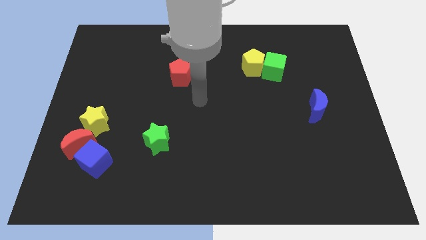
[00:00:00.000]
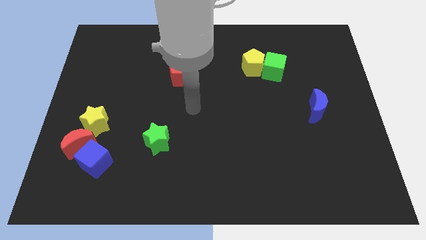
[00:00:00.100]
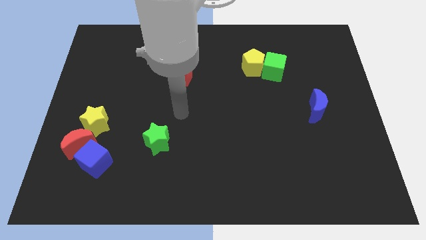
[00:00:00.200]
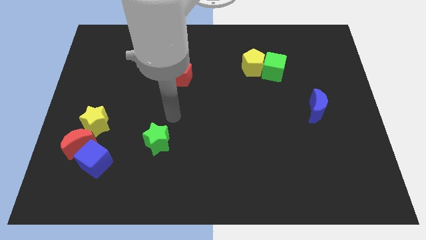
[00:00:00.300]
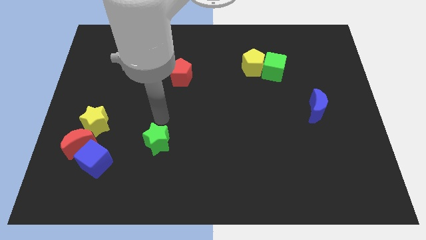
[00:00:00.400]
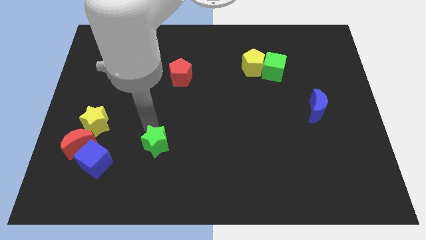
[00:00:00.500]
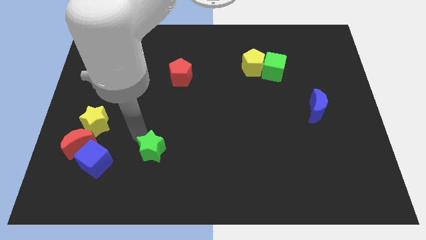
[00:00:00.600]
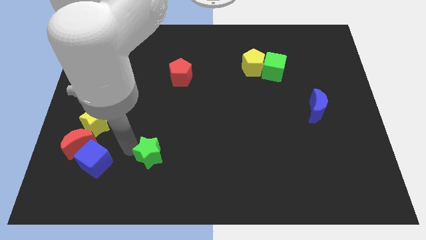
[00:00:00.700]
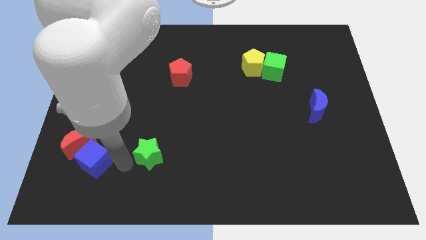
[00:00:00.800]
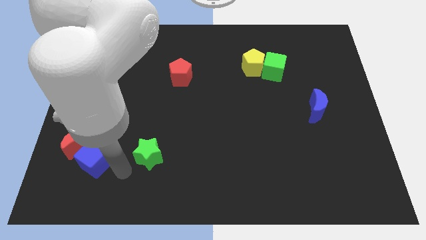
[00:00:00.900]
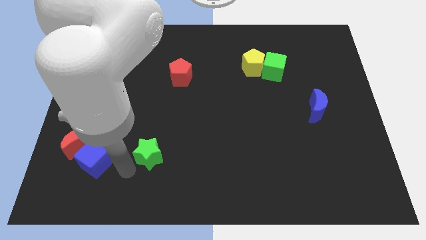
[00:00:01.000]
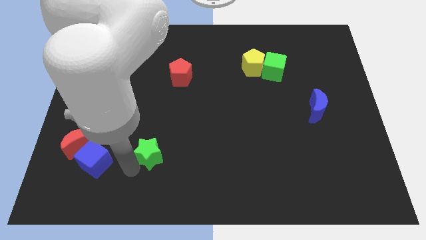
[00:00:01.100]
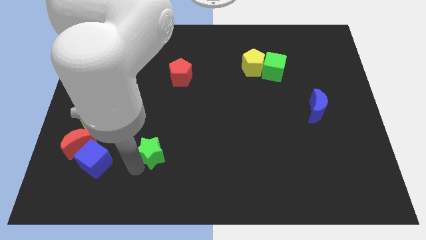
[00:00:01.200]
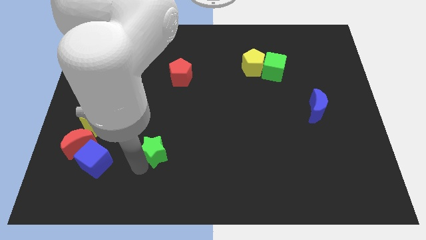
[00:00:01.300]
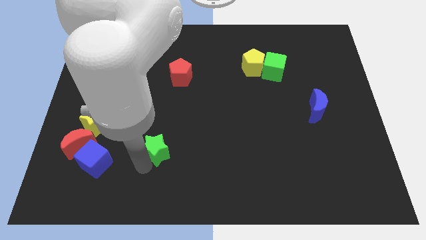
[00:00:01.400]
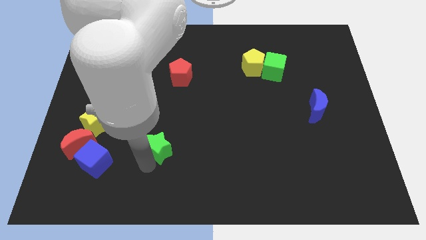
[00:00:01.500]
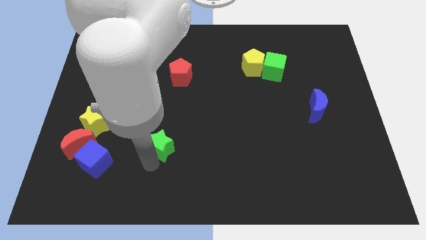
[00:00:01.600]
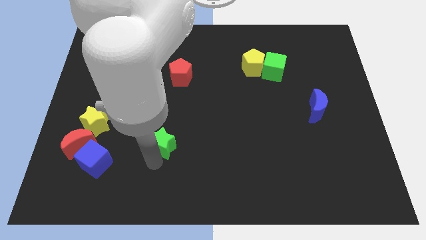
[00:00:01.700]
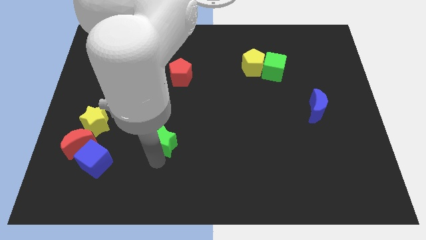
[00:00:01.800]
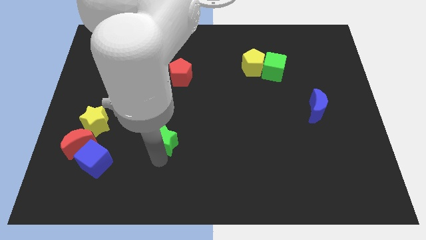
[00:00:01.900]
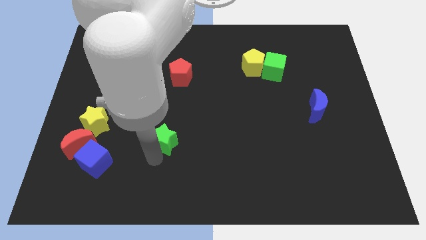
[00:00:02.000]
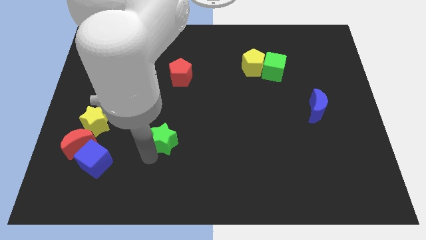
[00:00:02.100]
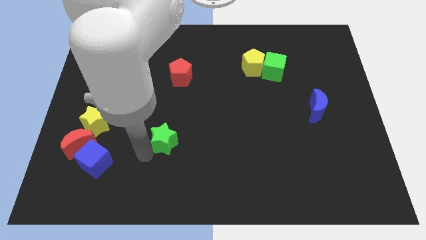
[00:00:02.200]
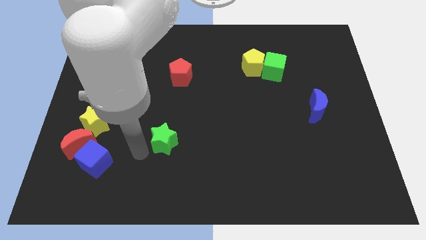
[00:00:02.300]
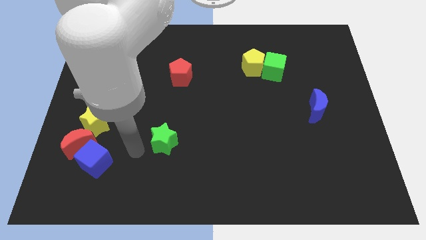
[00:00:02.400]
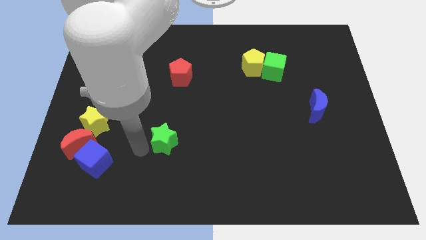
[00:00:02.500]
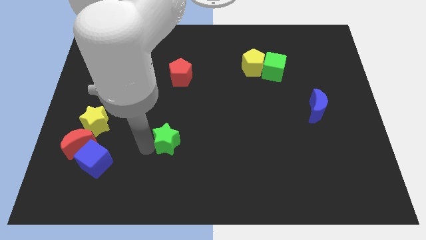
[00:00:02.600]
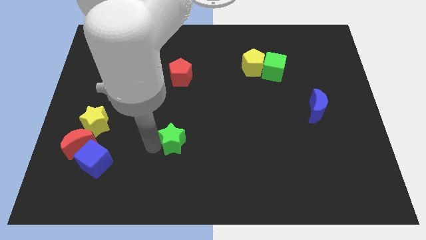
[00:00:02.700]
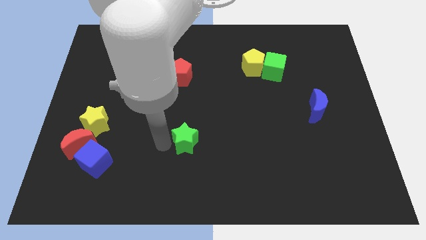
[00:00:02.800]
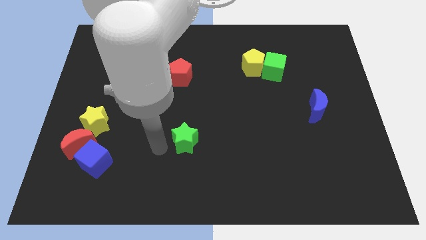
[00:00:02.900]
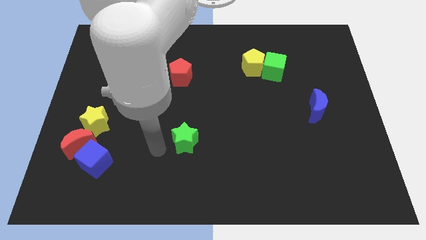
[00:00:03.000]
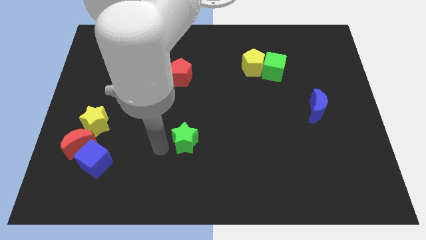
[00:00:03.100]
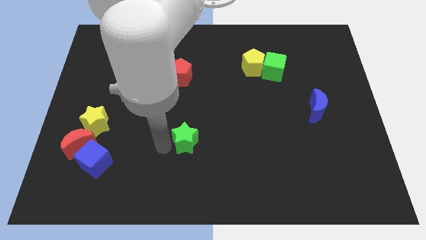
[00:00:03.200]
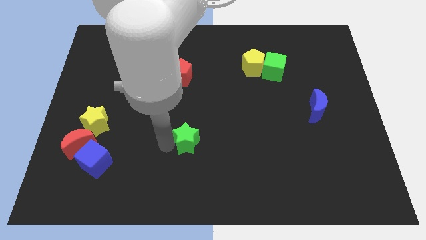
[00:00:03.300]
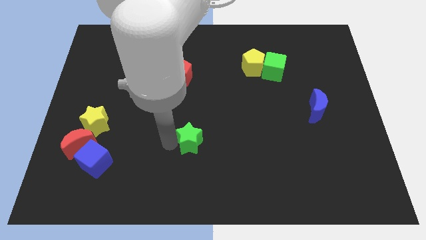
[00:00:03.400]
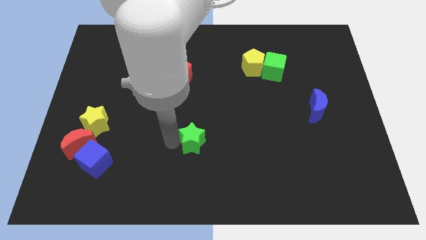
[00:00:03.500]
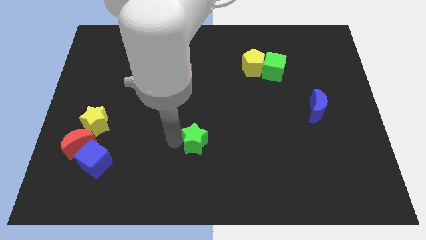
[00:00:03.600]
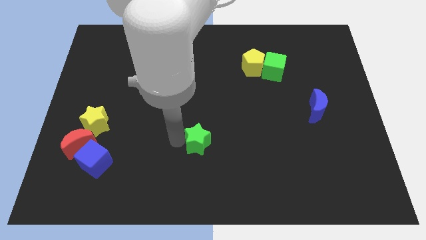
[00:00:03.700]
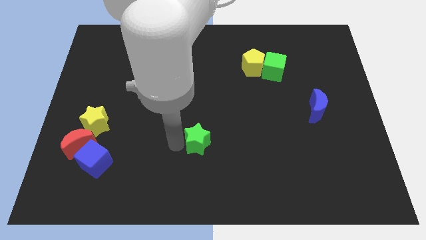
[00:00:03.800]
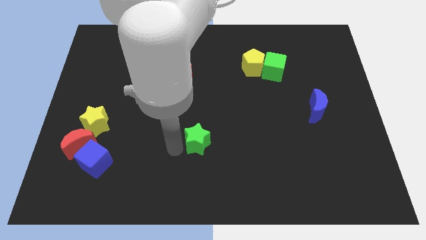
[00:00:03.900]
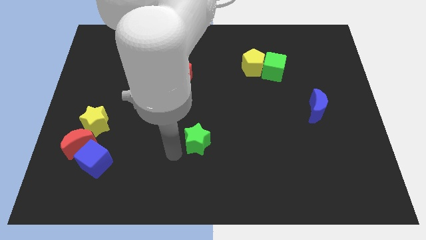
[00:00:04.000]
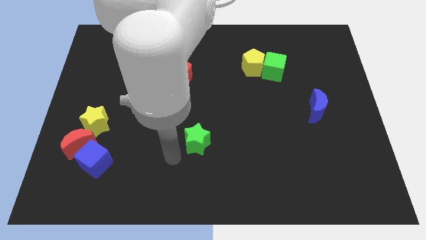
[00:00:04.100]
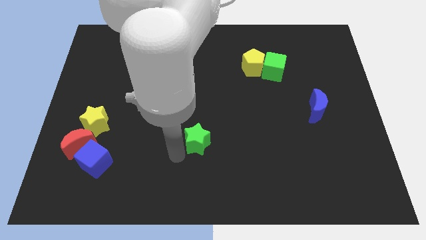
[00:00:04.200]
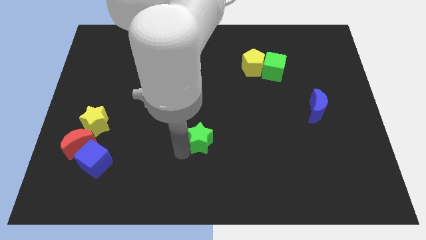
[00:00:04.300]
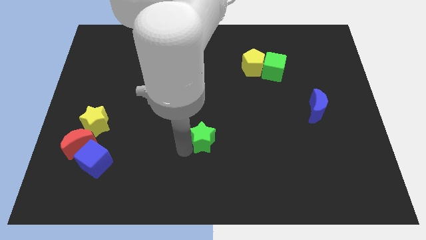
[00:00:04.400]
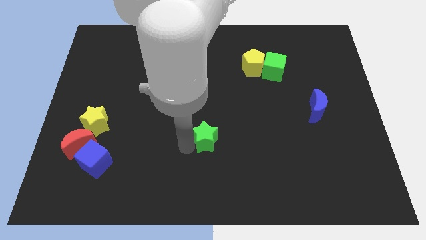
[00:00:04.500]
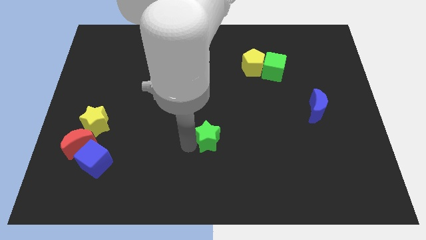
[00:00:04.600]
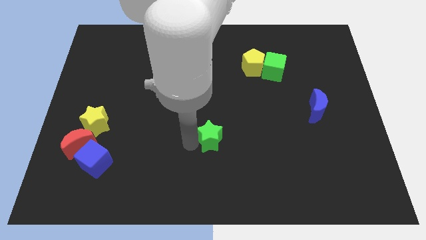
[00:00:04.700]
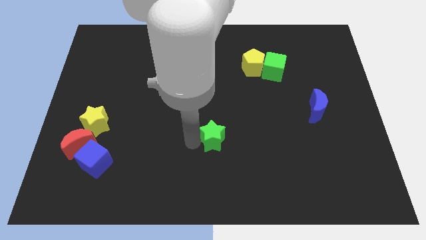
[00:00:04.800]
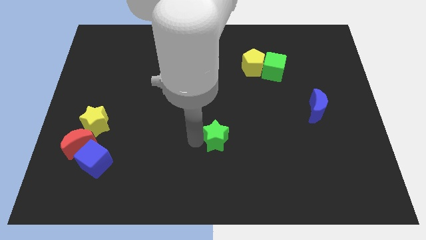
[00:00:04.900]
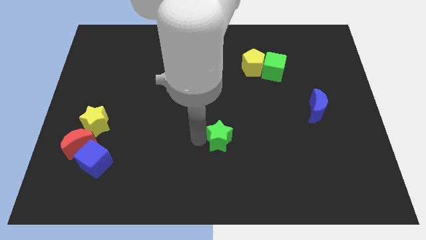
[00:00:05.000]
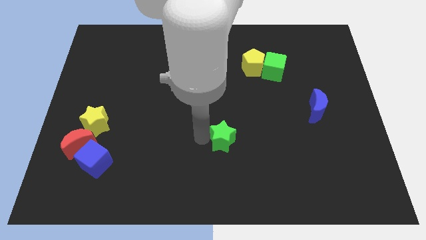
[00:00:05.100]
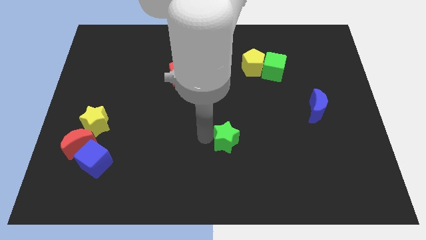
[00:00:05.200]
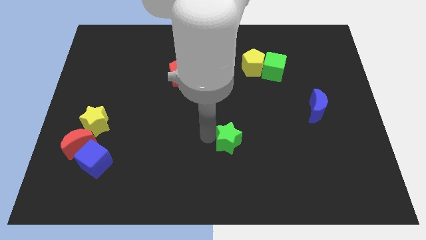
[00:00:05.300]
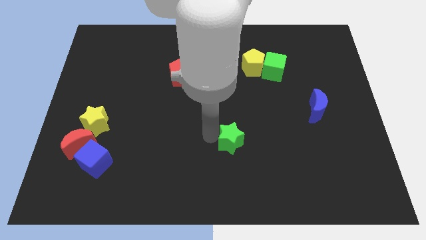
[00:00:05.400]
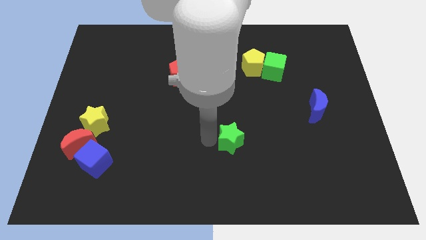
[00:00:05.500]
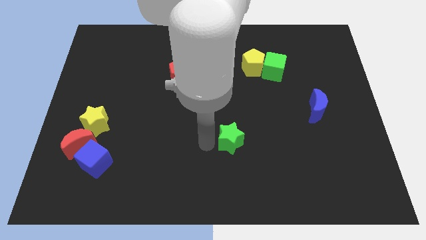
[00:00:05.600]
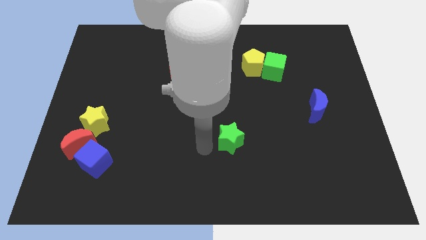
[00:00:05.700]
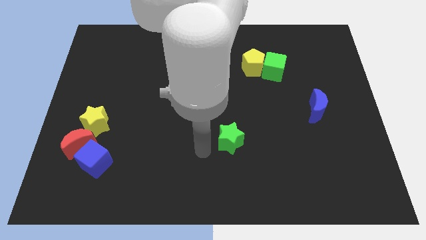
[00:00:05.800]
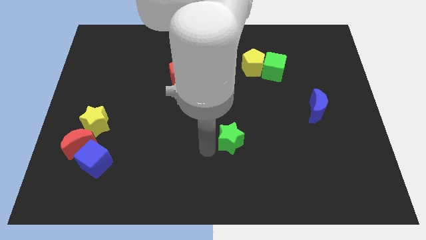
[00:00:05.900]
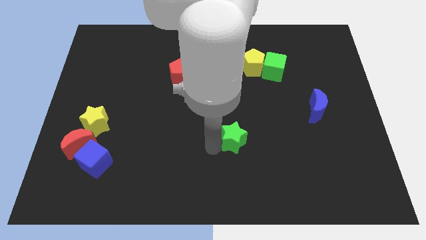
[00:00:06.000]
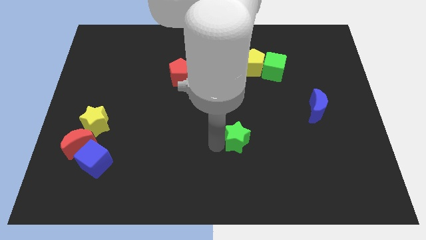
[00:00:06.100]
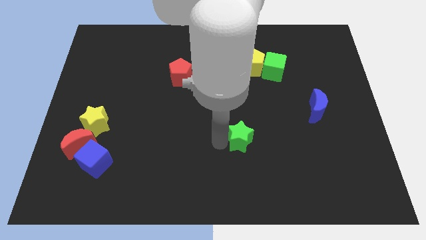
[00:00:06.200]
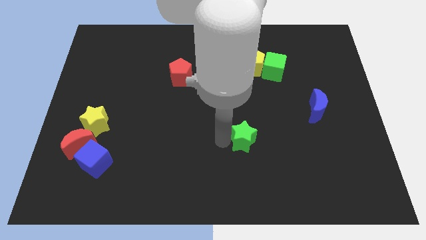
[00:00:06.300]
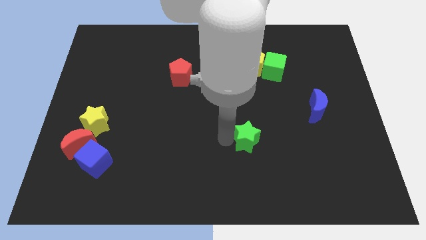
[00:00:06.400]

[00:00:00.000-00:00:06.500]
move the green star to the right

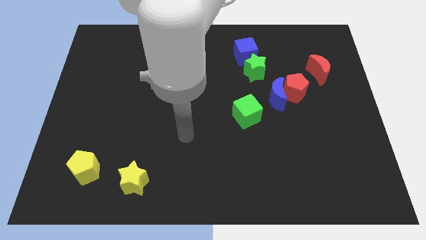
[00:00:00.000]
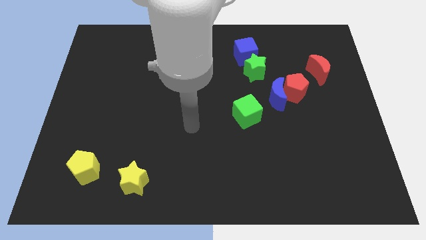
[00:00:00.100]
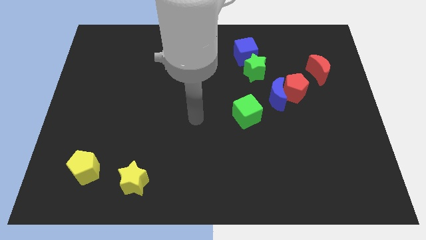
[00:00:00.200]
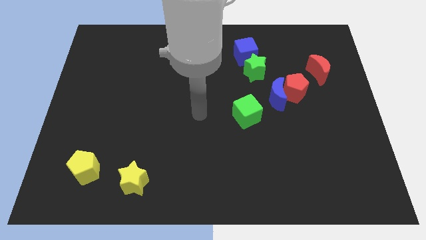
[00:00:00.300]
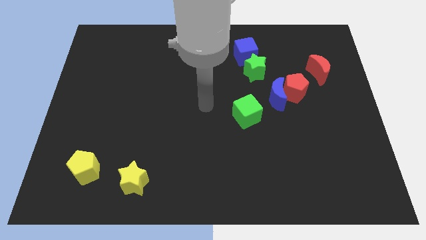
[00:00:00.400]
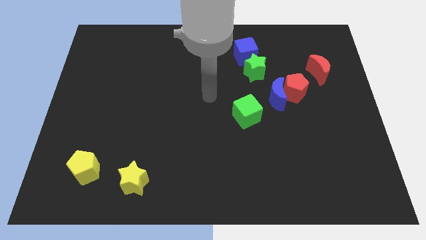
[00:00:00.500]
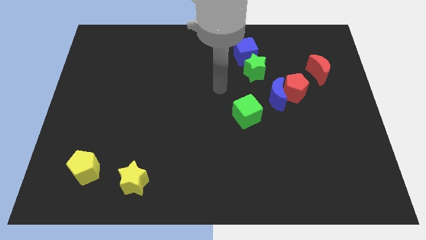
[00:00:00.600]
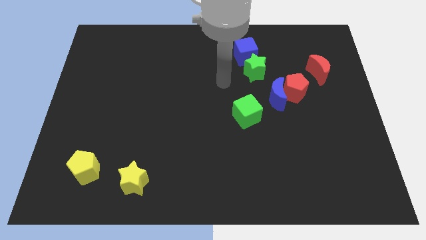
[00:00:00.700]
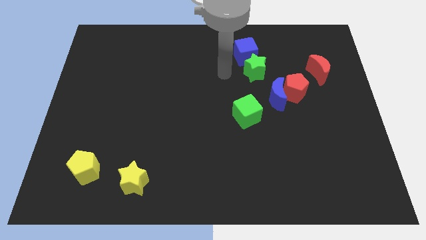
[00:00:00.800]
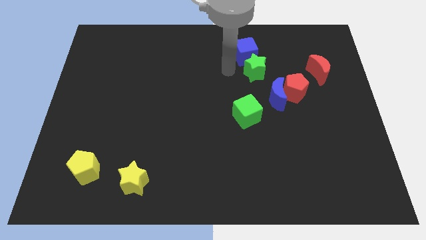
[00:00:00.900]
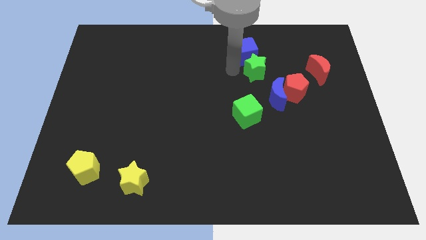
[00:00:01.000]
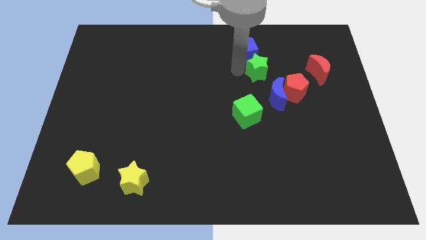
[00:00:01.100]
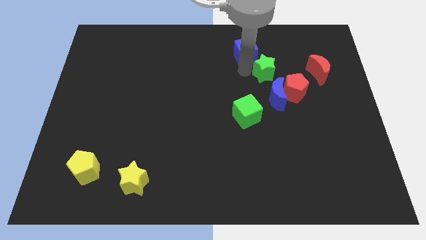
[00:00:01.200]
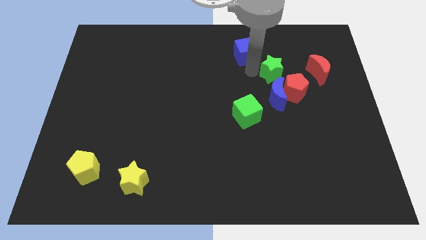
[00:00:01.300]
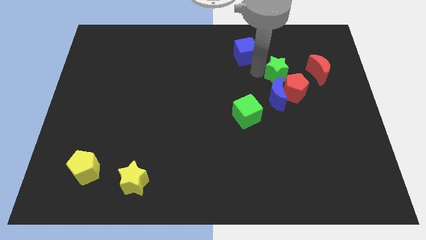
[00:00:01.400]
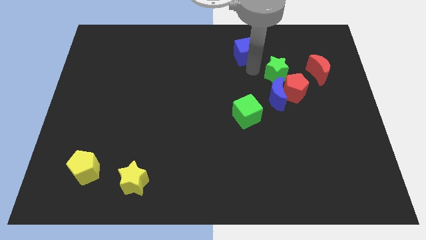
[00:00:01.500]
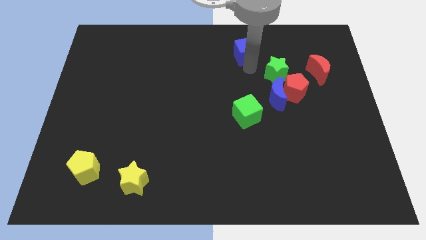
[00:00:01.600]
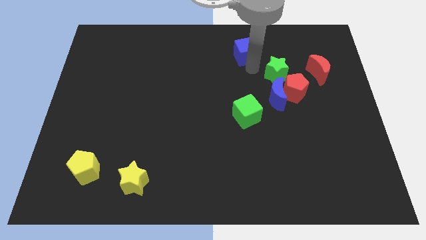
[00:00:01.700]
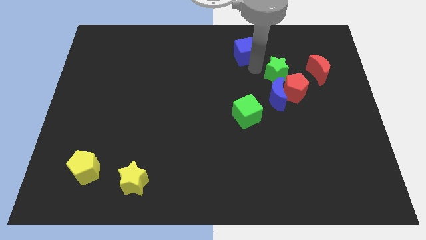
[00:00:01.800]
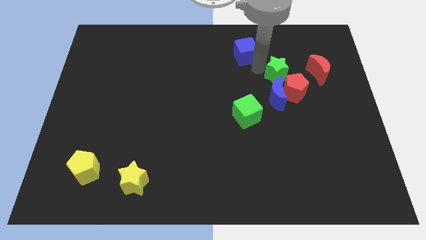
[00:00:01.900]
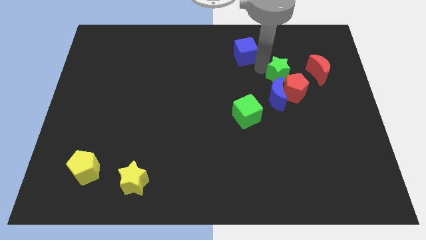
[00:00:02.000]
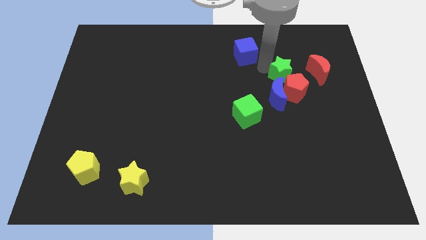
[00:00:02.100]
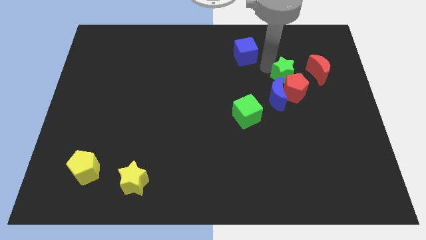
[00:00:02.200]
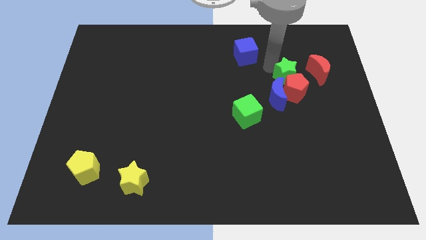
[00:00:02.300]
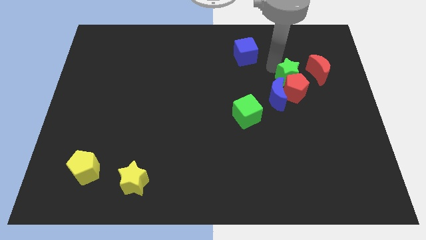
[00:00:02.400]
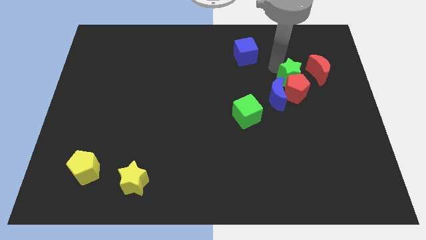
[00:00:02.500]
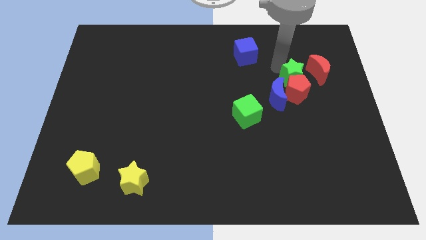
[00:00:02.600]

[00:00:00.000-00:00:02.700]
slide the green star down and right diagonally a little
